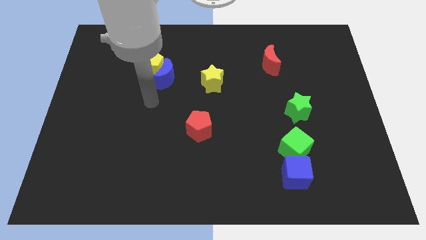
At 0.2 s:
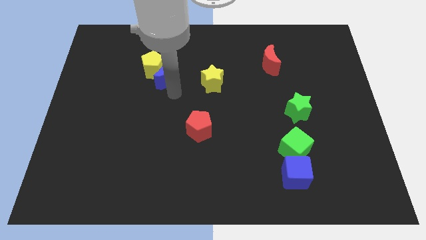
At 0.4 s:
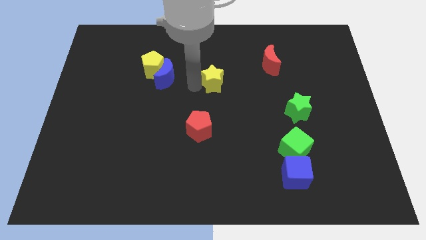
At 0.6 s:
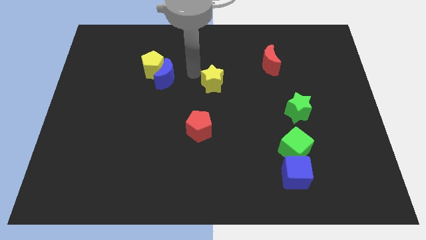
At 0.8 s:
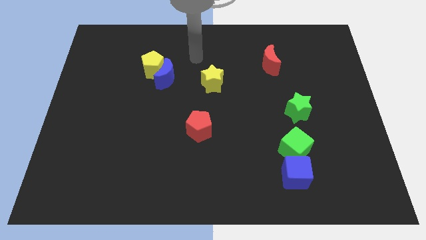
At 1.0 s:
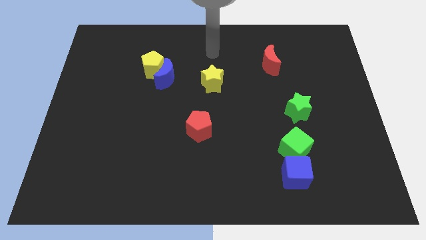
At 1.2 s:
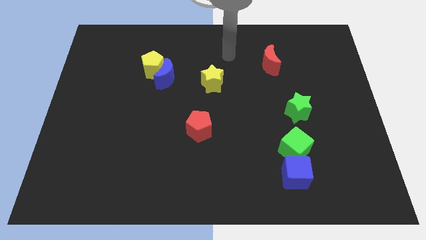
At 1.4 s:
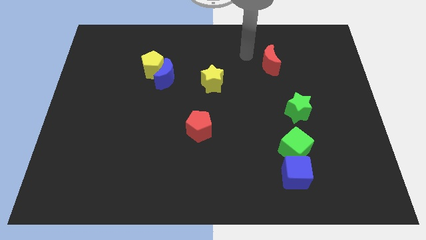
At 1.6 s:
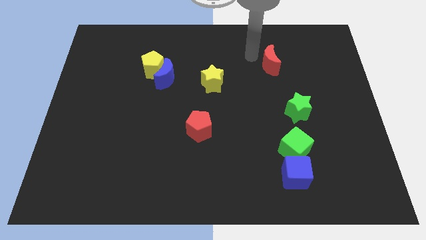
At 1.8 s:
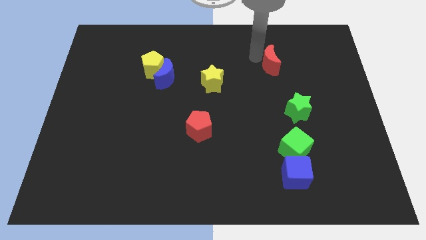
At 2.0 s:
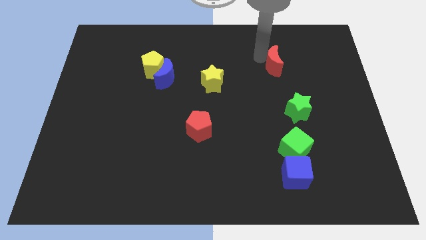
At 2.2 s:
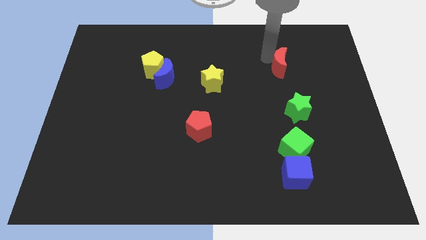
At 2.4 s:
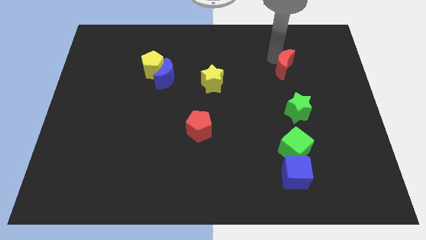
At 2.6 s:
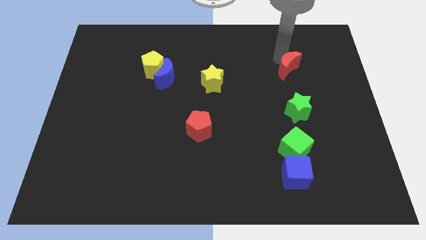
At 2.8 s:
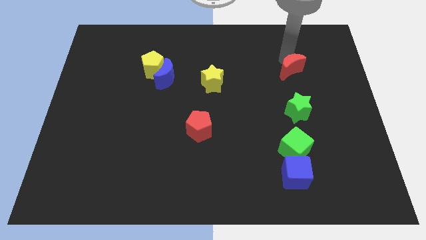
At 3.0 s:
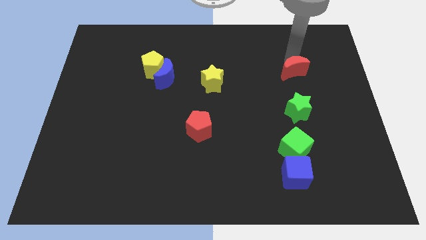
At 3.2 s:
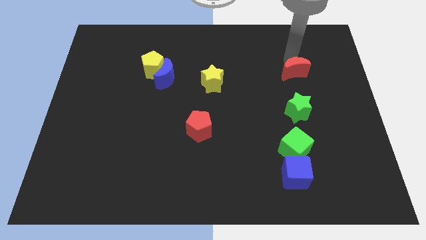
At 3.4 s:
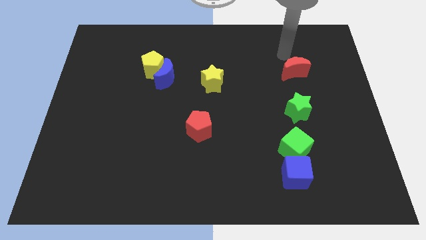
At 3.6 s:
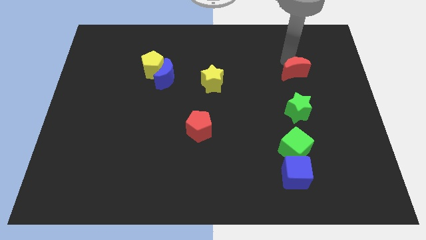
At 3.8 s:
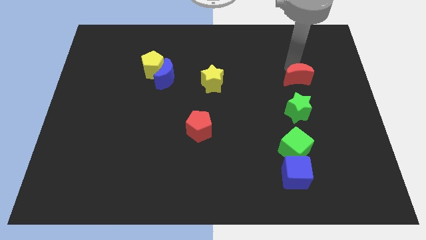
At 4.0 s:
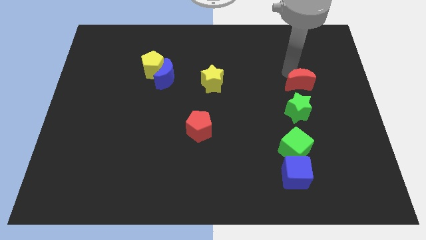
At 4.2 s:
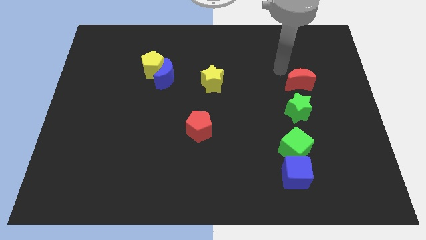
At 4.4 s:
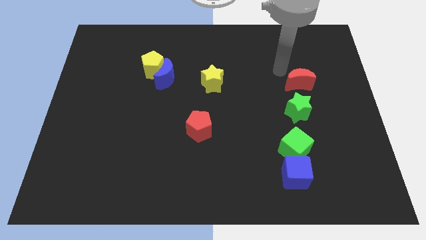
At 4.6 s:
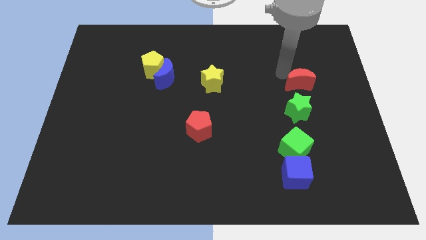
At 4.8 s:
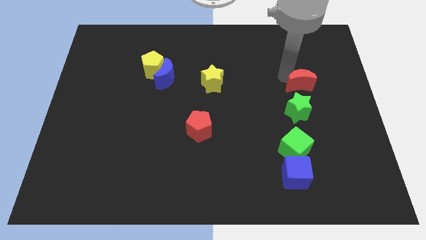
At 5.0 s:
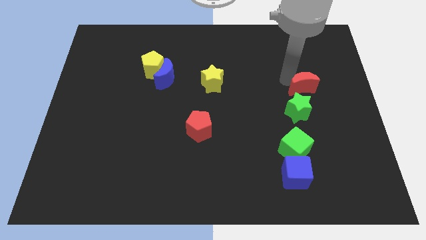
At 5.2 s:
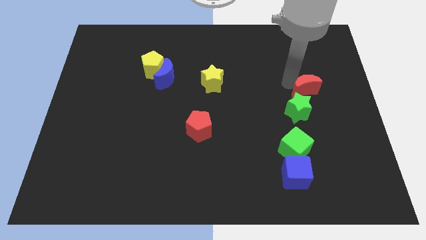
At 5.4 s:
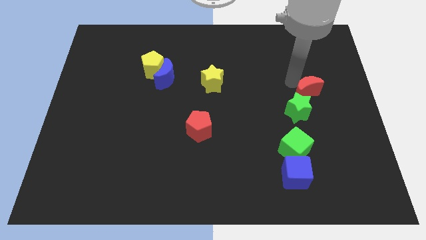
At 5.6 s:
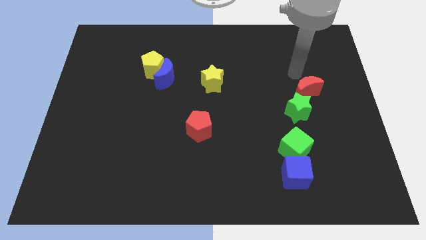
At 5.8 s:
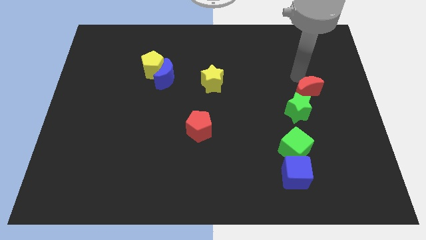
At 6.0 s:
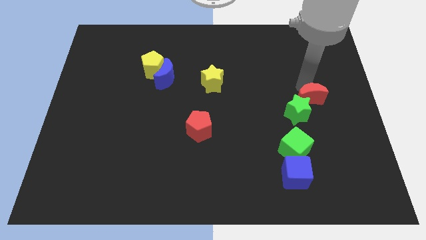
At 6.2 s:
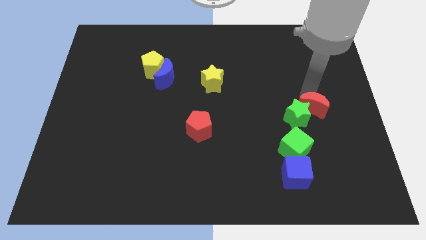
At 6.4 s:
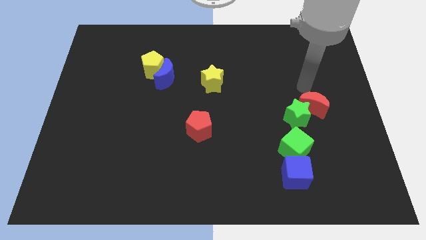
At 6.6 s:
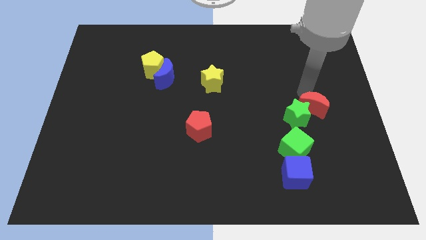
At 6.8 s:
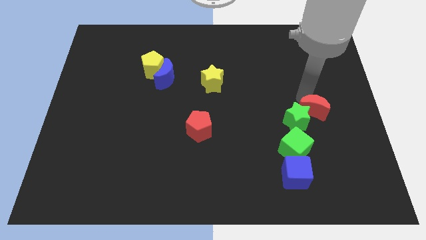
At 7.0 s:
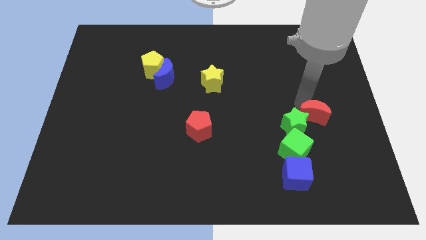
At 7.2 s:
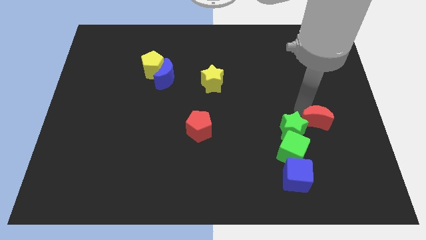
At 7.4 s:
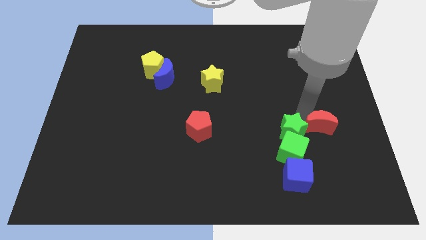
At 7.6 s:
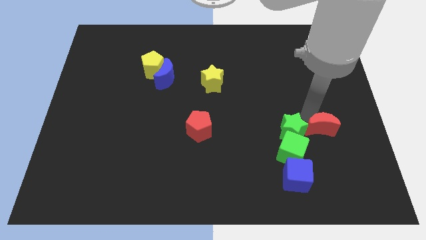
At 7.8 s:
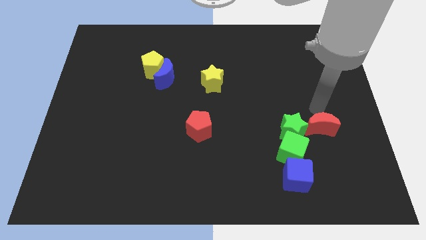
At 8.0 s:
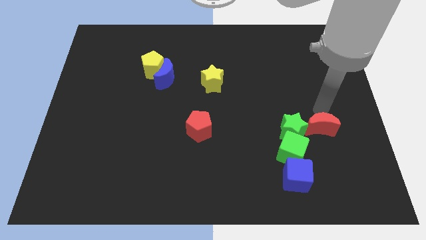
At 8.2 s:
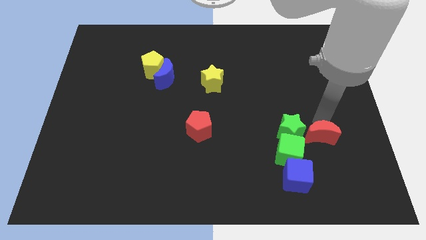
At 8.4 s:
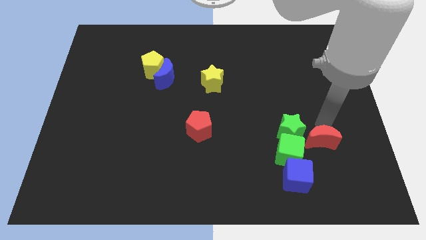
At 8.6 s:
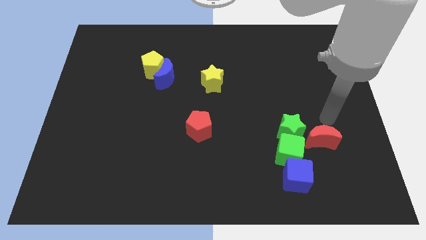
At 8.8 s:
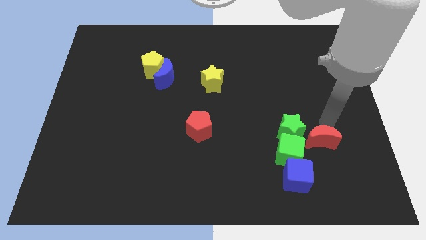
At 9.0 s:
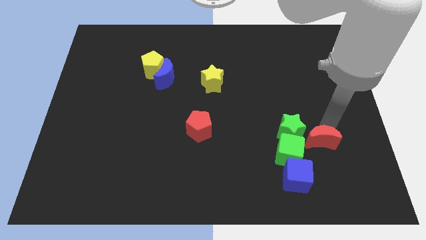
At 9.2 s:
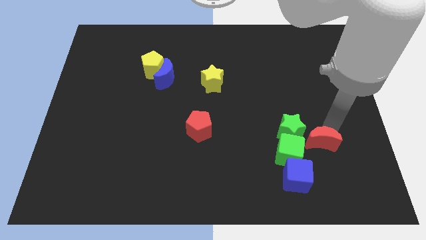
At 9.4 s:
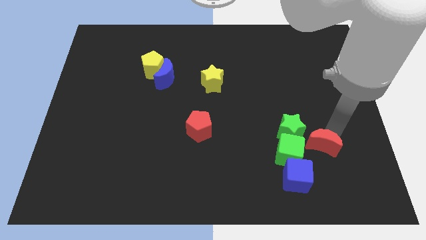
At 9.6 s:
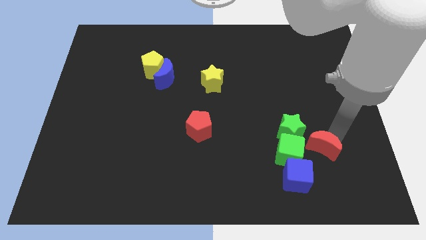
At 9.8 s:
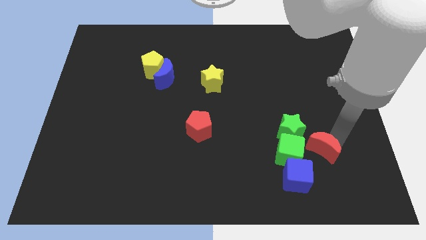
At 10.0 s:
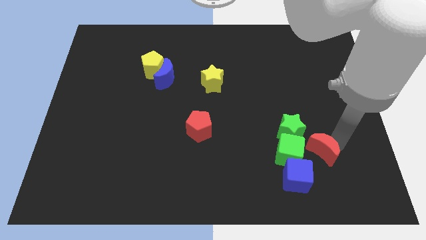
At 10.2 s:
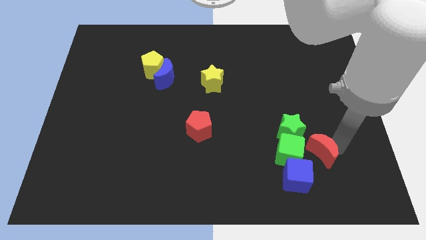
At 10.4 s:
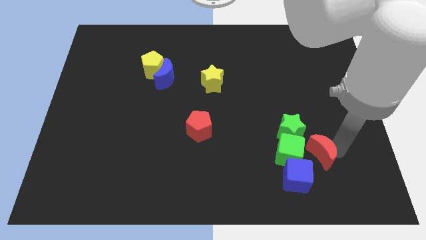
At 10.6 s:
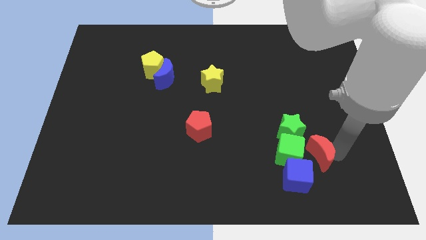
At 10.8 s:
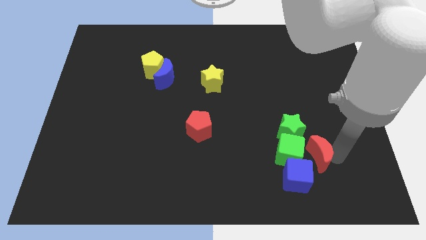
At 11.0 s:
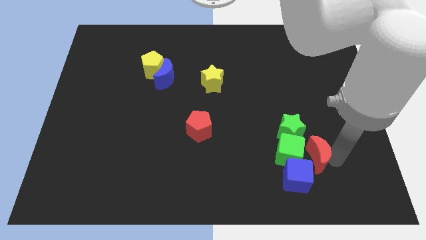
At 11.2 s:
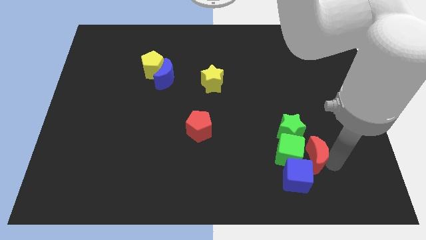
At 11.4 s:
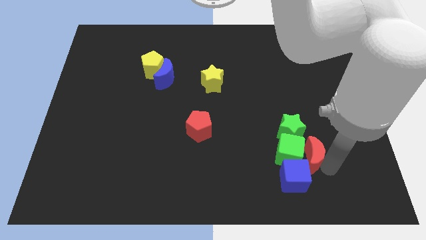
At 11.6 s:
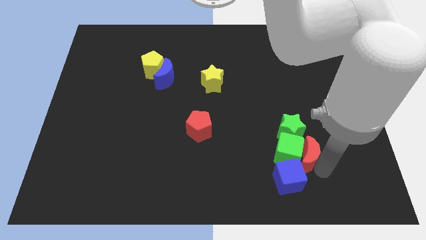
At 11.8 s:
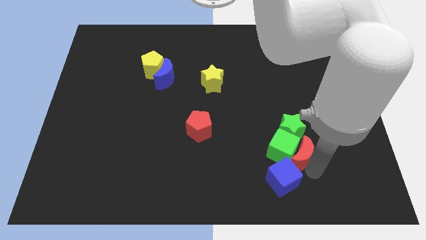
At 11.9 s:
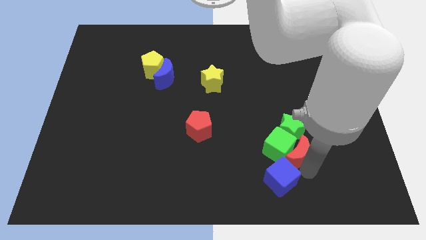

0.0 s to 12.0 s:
slide the red moon diagonally down and to the right of the green star
